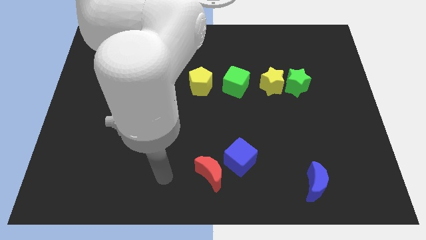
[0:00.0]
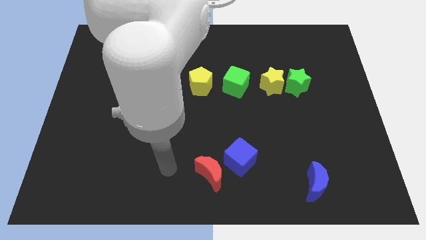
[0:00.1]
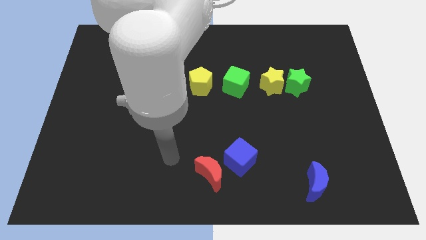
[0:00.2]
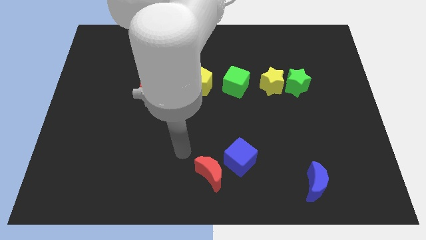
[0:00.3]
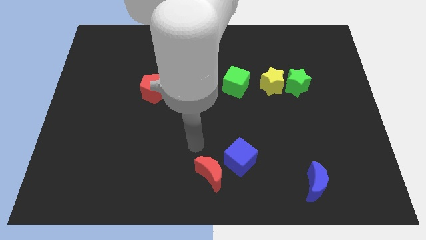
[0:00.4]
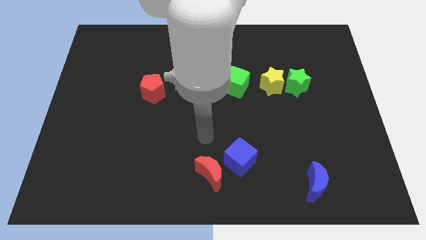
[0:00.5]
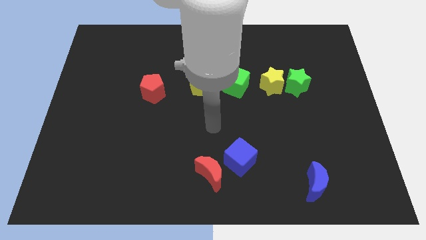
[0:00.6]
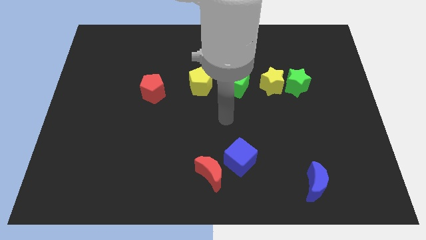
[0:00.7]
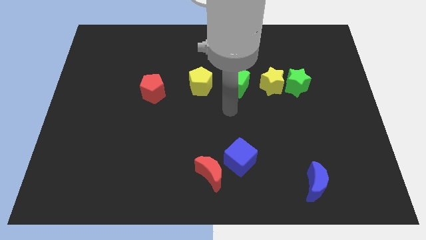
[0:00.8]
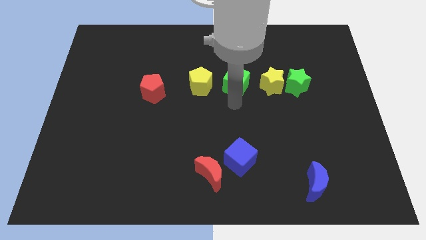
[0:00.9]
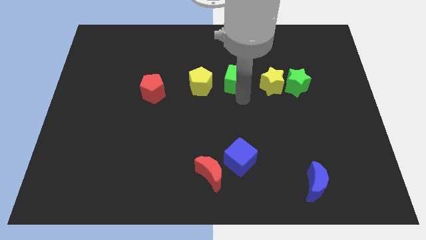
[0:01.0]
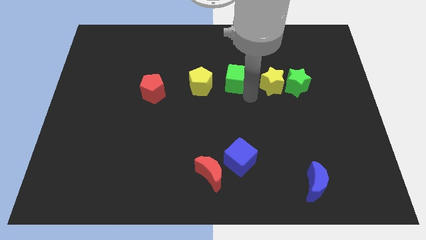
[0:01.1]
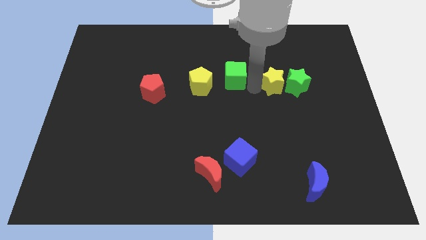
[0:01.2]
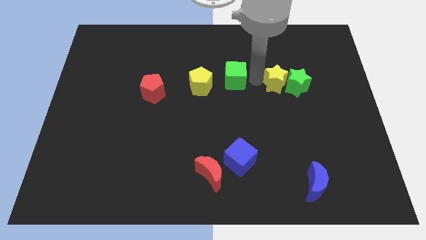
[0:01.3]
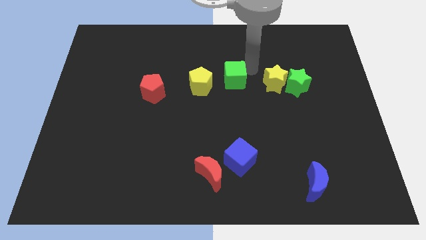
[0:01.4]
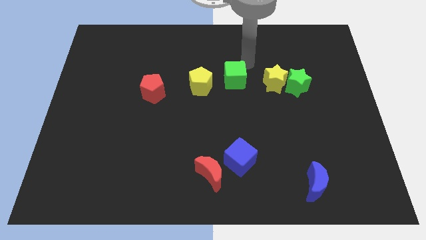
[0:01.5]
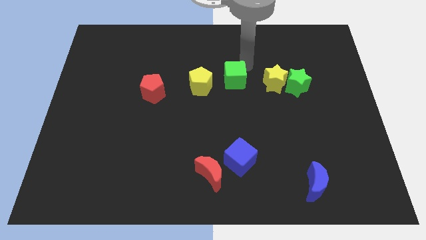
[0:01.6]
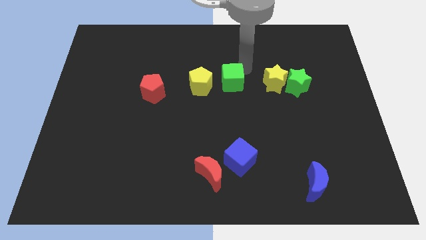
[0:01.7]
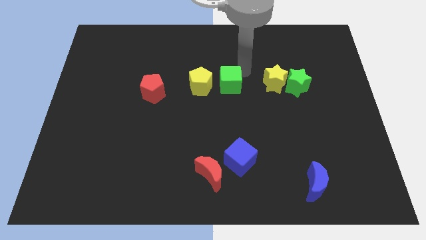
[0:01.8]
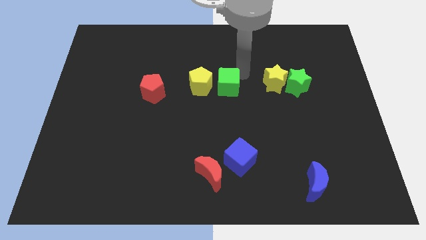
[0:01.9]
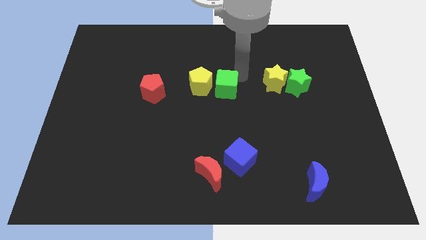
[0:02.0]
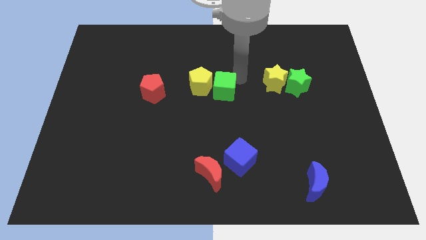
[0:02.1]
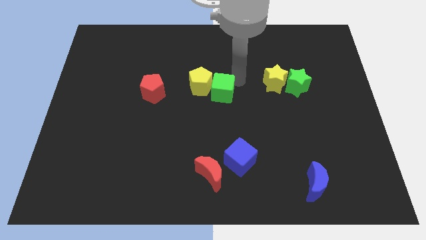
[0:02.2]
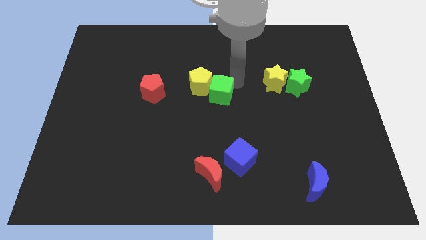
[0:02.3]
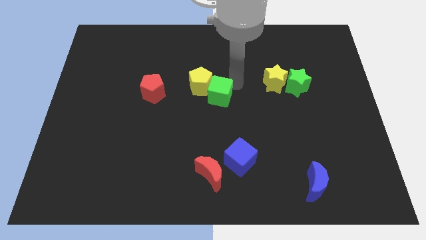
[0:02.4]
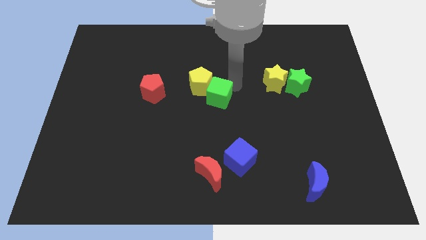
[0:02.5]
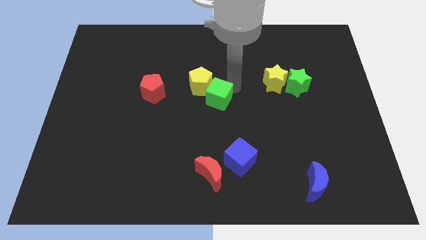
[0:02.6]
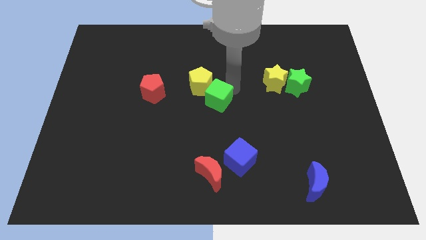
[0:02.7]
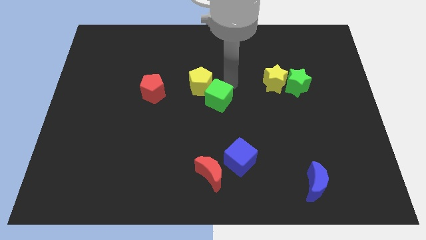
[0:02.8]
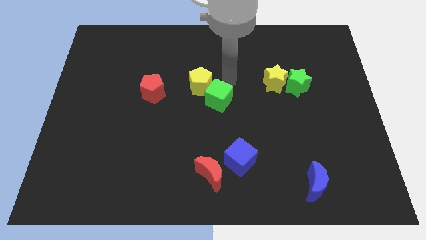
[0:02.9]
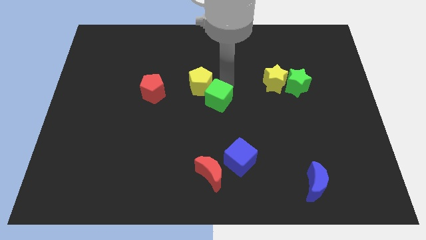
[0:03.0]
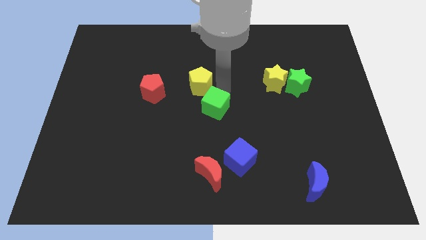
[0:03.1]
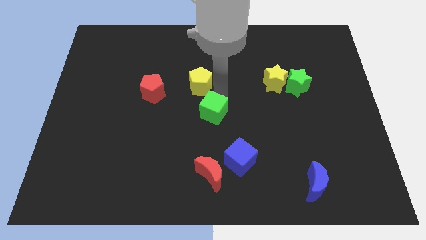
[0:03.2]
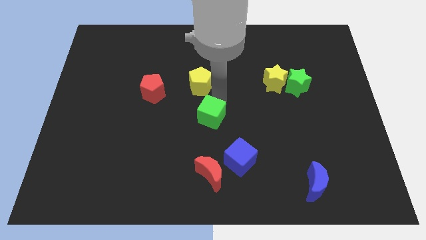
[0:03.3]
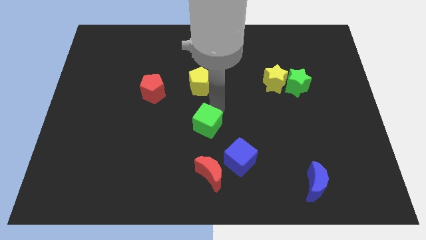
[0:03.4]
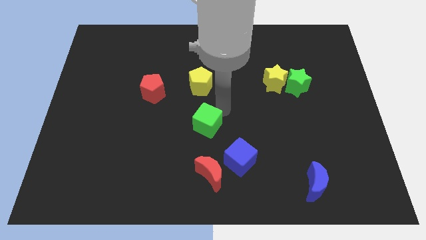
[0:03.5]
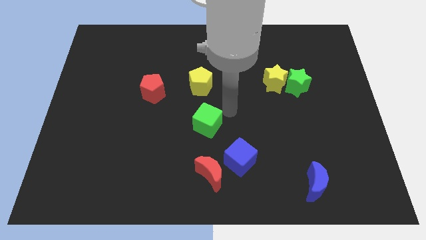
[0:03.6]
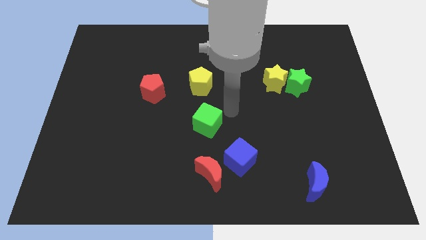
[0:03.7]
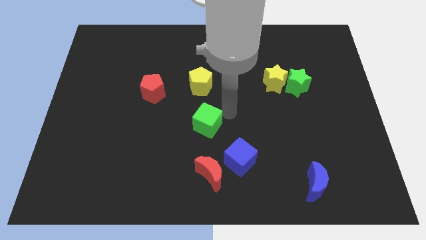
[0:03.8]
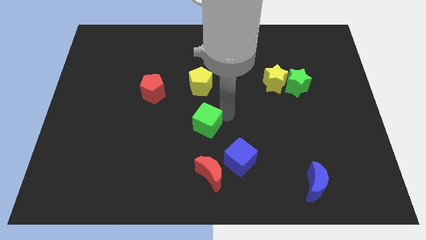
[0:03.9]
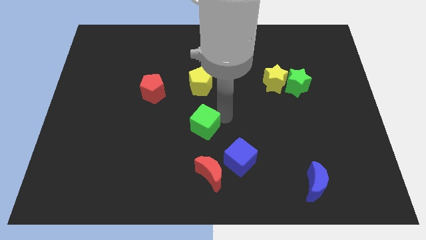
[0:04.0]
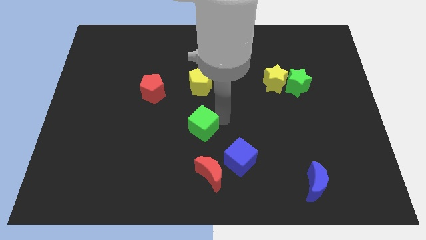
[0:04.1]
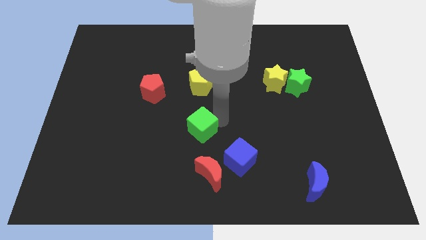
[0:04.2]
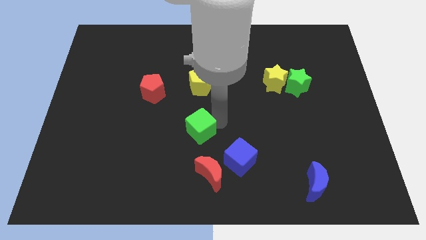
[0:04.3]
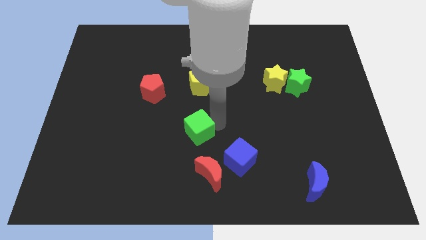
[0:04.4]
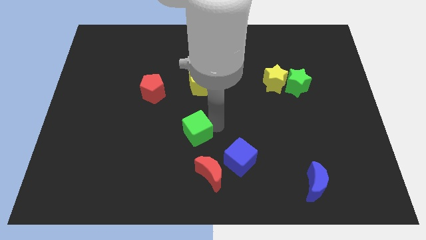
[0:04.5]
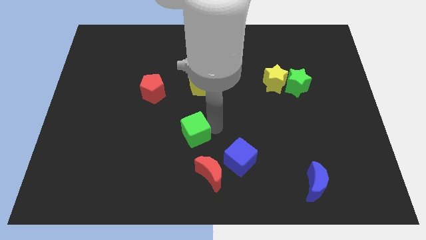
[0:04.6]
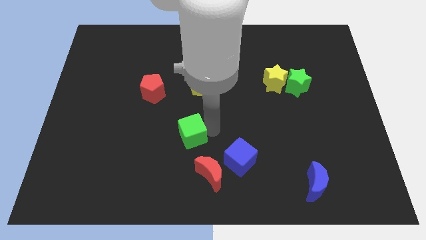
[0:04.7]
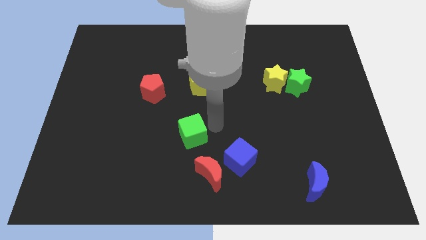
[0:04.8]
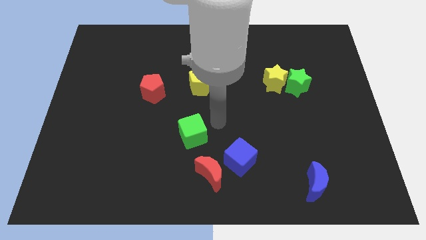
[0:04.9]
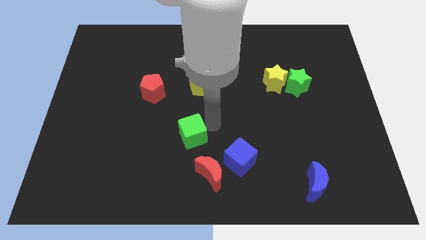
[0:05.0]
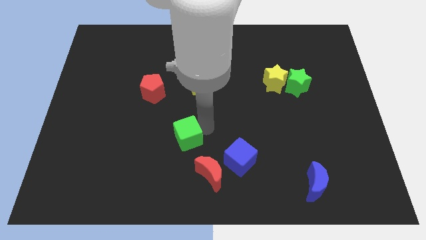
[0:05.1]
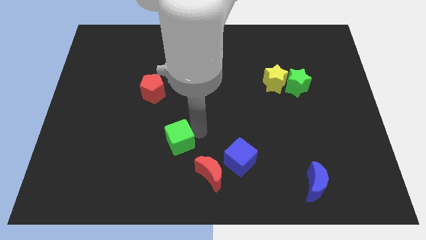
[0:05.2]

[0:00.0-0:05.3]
move the green cube down and to the left

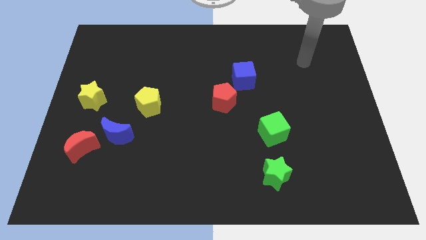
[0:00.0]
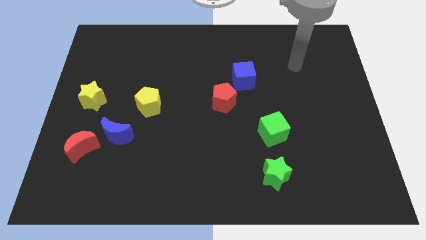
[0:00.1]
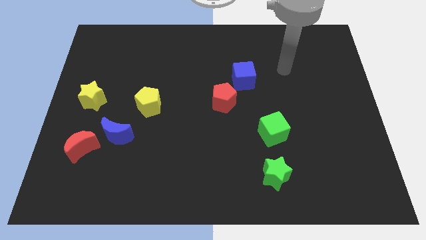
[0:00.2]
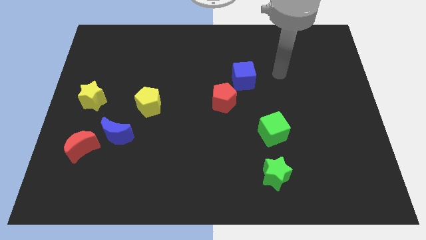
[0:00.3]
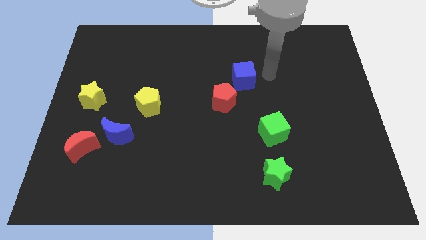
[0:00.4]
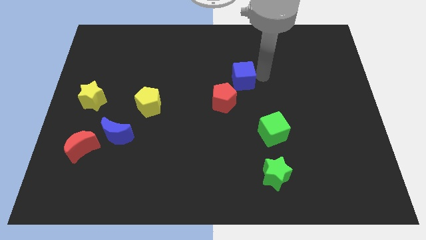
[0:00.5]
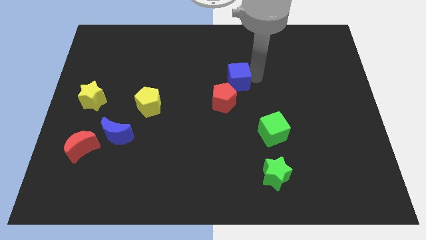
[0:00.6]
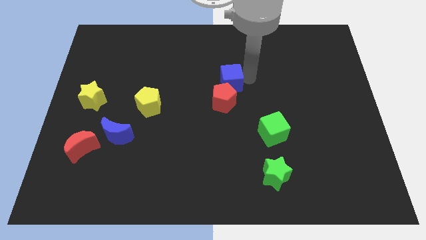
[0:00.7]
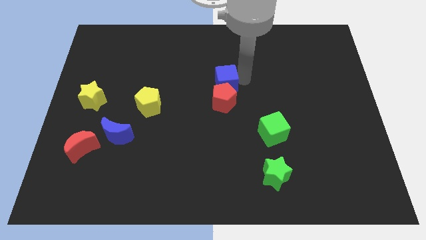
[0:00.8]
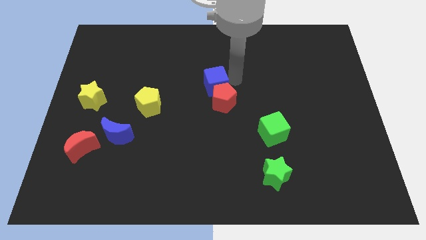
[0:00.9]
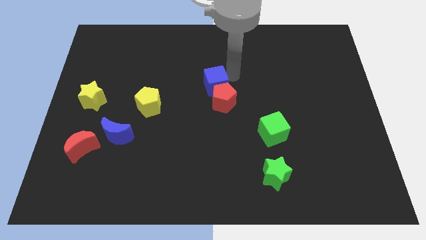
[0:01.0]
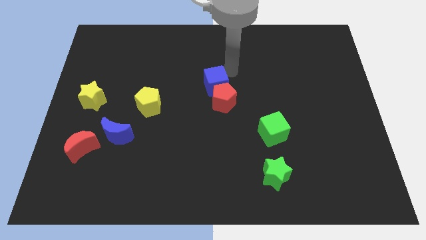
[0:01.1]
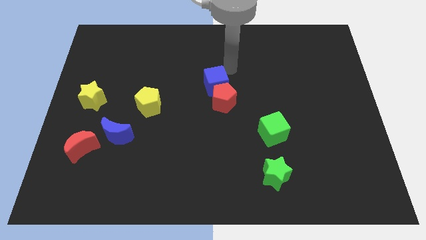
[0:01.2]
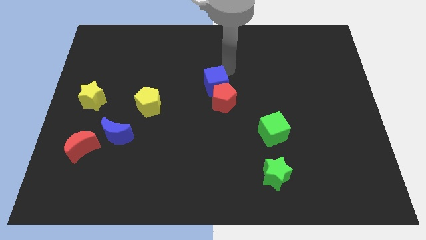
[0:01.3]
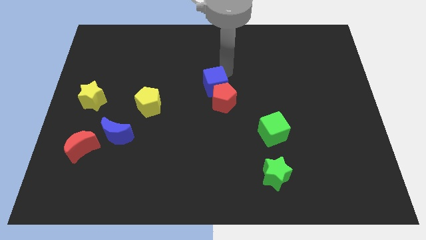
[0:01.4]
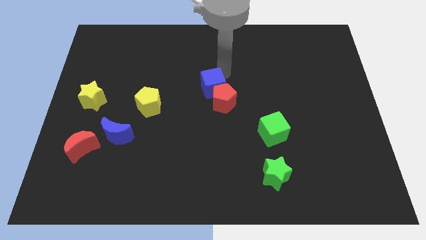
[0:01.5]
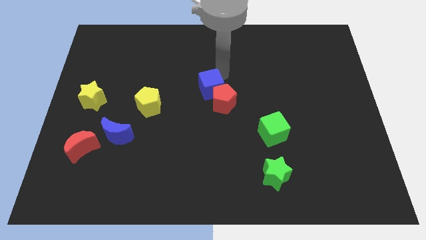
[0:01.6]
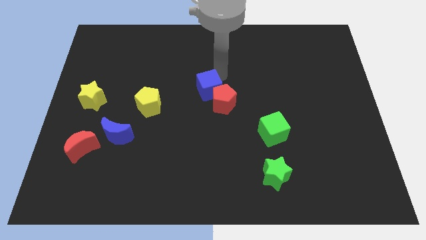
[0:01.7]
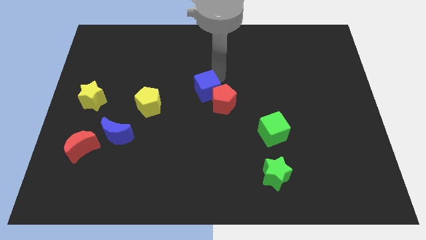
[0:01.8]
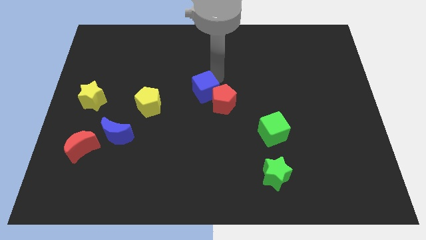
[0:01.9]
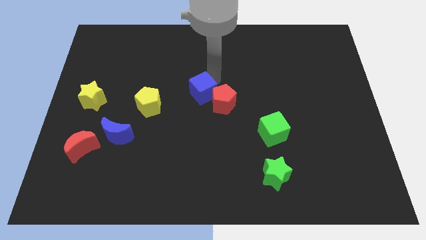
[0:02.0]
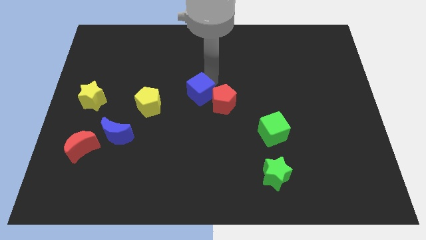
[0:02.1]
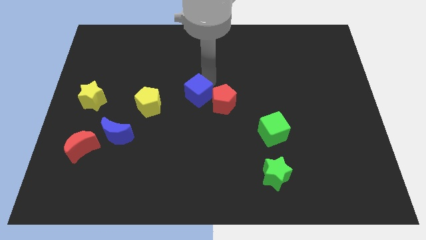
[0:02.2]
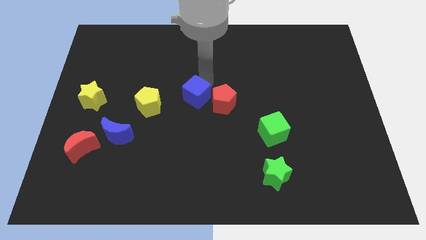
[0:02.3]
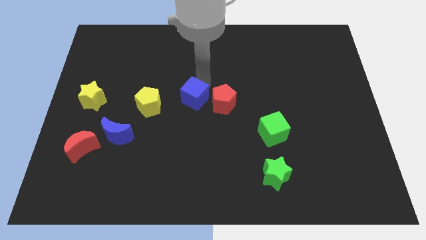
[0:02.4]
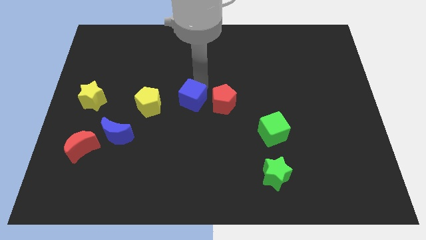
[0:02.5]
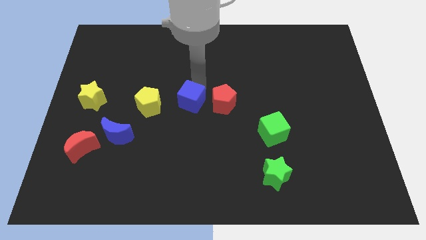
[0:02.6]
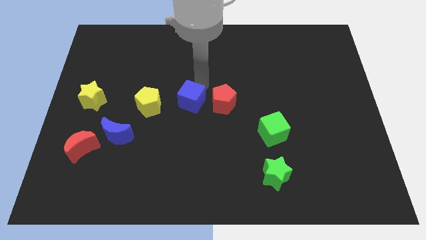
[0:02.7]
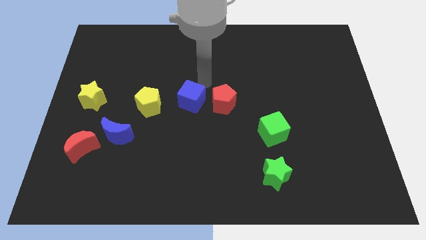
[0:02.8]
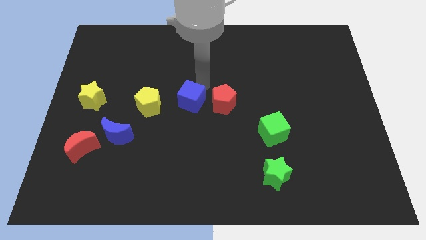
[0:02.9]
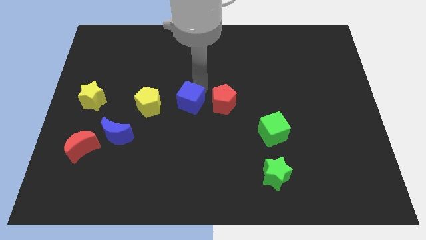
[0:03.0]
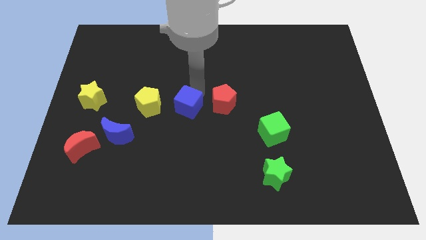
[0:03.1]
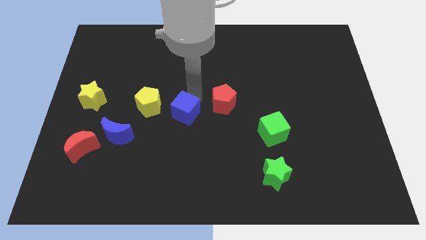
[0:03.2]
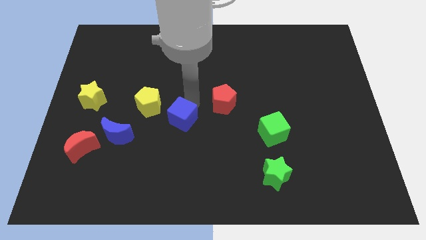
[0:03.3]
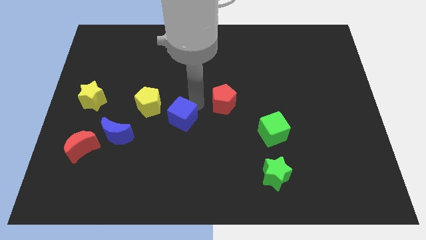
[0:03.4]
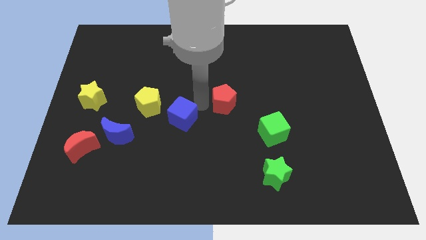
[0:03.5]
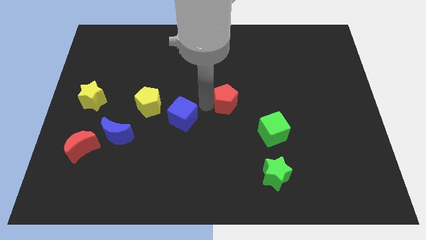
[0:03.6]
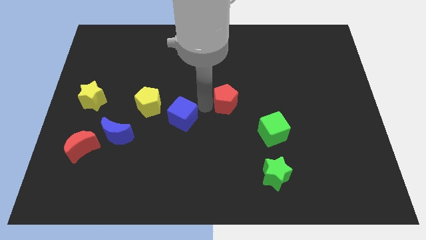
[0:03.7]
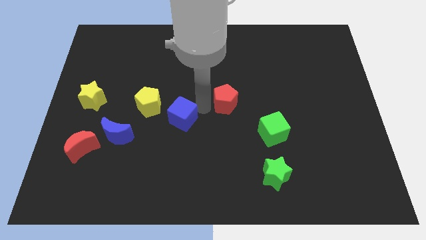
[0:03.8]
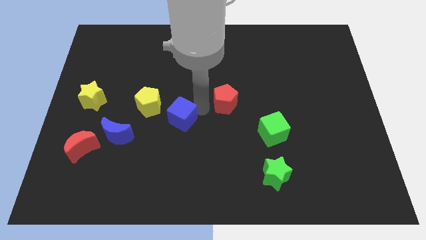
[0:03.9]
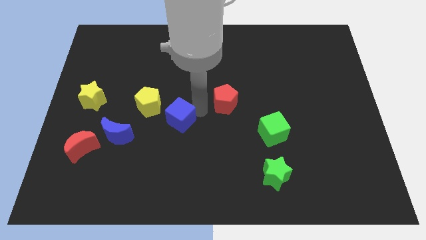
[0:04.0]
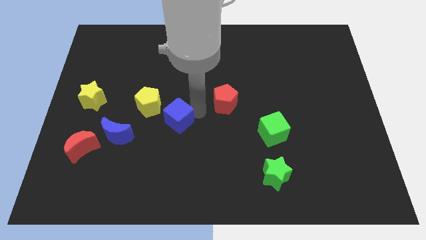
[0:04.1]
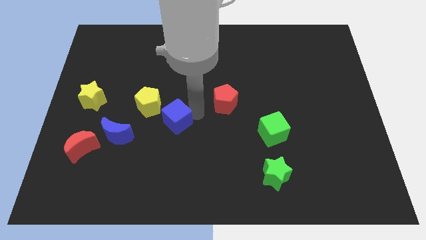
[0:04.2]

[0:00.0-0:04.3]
slide the blue cube down and to the left
